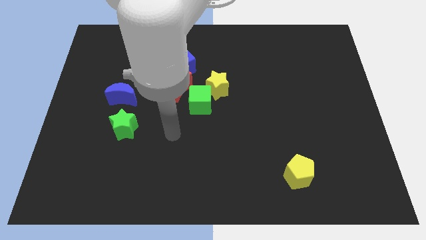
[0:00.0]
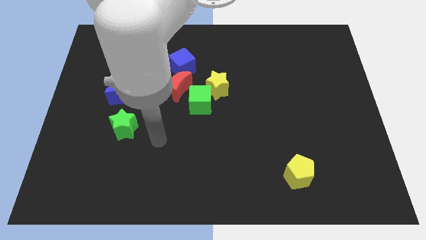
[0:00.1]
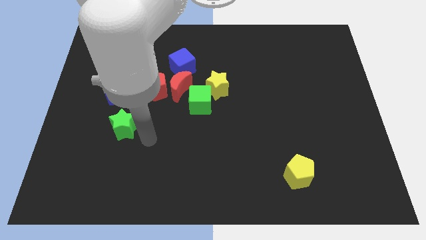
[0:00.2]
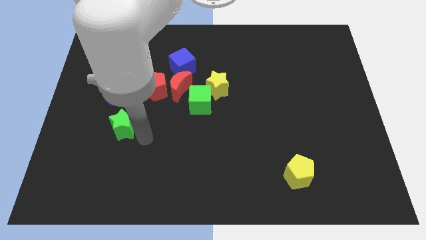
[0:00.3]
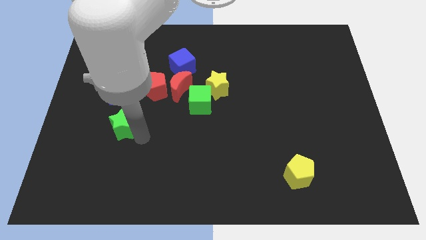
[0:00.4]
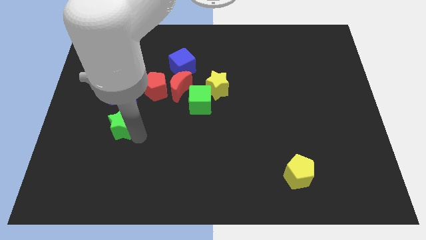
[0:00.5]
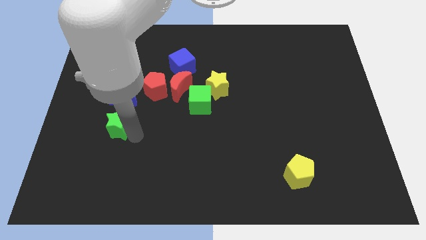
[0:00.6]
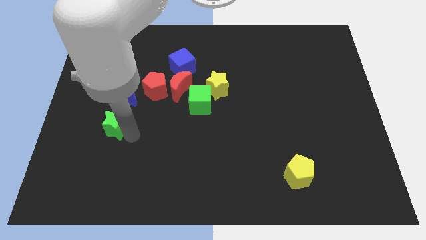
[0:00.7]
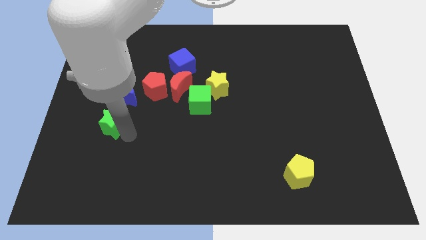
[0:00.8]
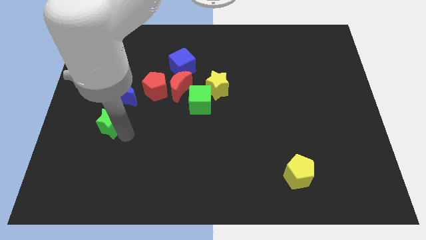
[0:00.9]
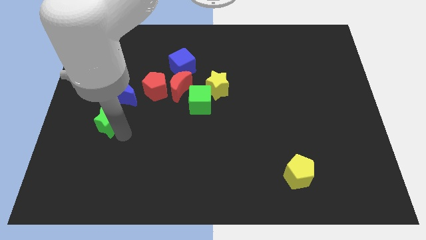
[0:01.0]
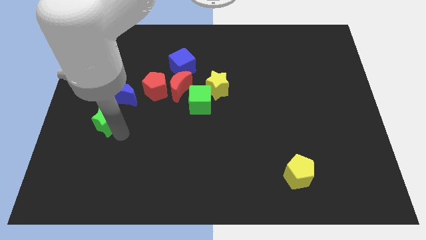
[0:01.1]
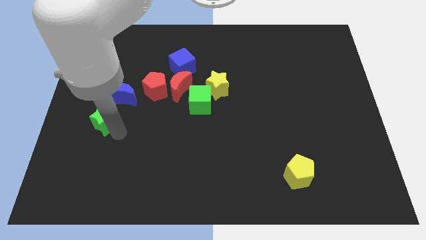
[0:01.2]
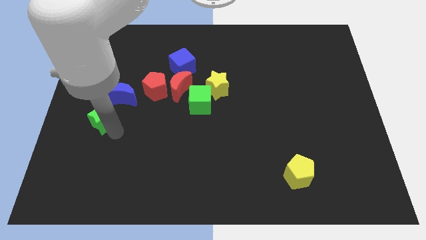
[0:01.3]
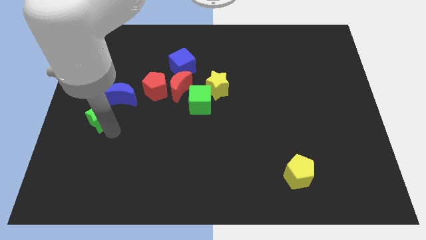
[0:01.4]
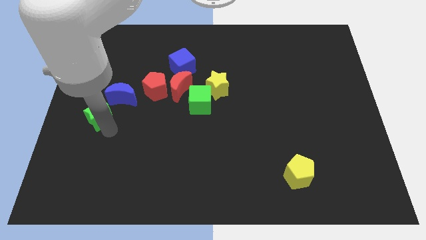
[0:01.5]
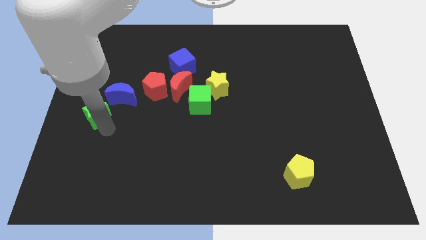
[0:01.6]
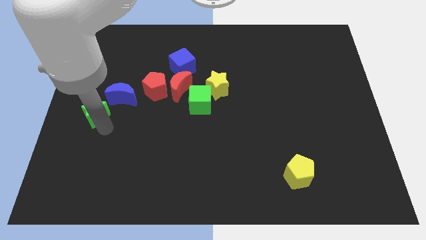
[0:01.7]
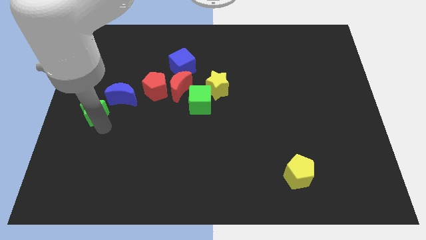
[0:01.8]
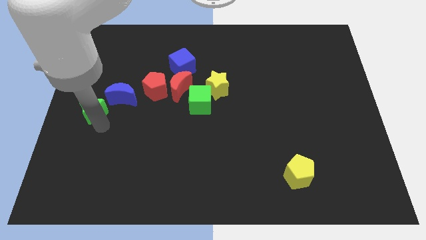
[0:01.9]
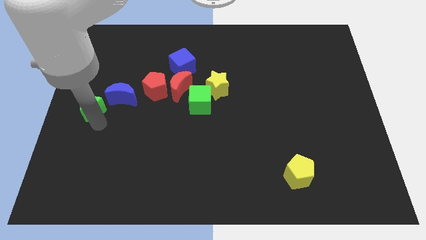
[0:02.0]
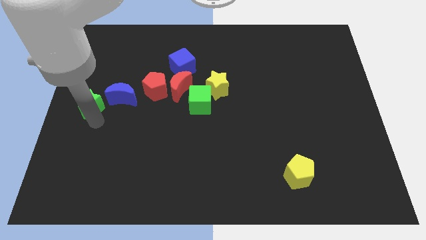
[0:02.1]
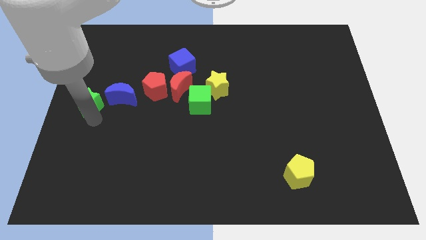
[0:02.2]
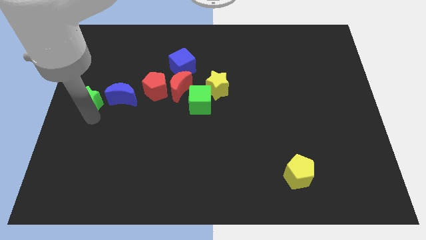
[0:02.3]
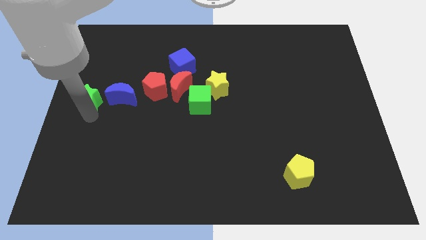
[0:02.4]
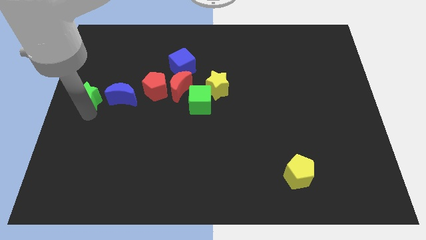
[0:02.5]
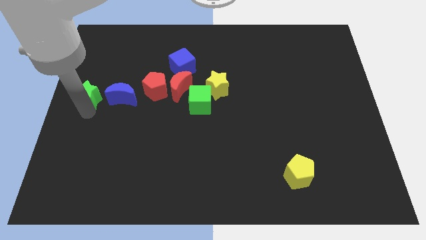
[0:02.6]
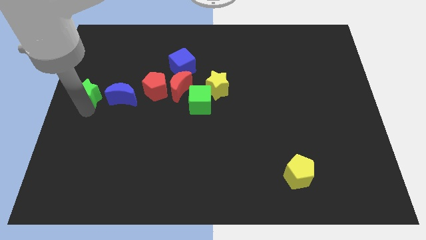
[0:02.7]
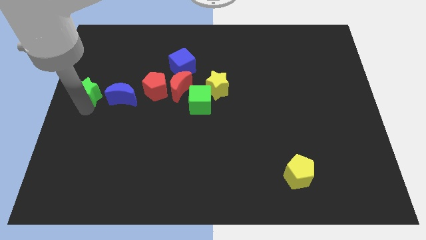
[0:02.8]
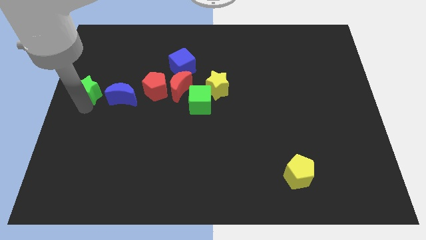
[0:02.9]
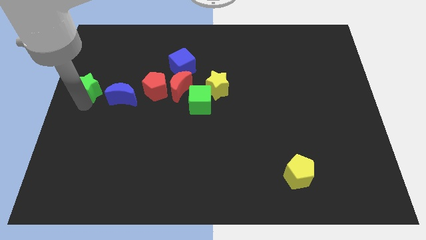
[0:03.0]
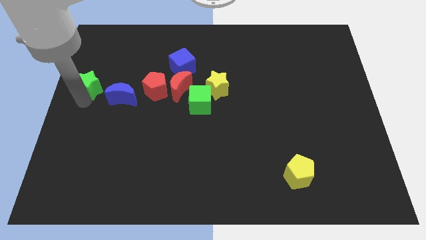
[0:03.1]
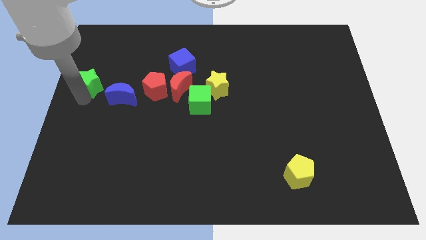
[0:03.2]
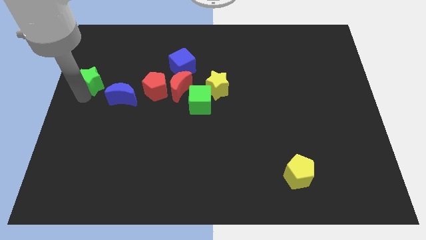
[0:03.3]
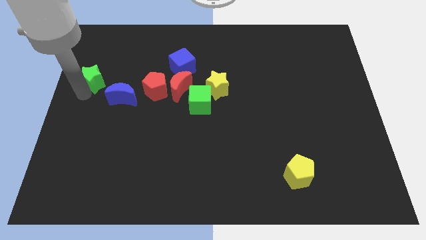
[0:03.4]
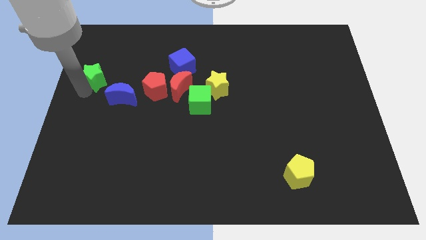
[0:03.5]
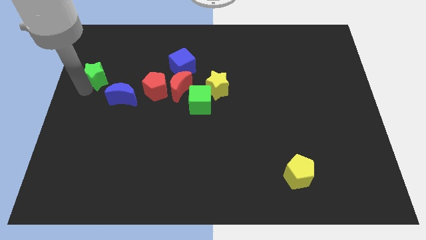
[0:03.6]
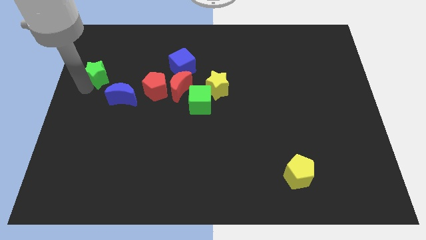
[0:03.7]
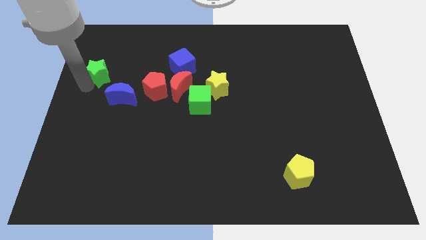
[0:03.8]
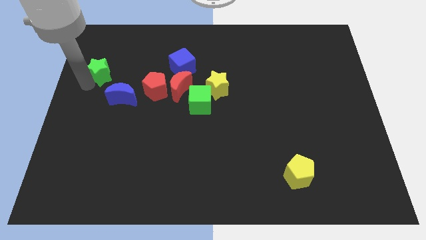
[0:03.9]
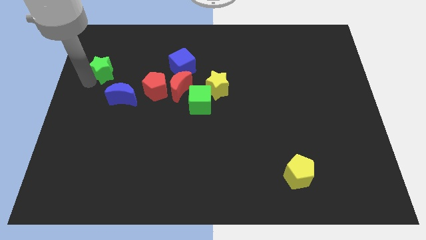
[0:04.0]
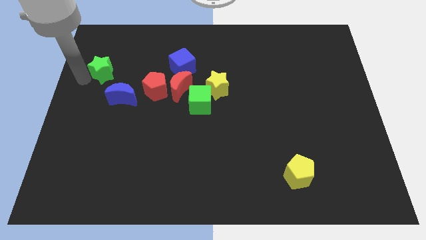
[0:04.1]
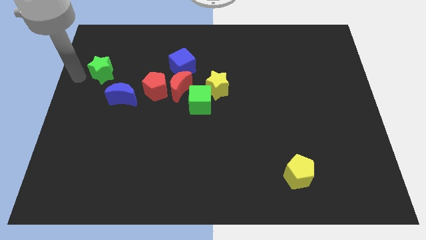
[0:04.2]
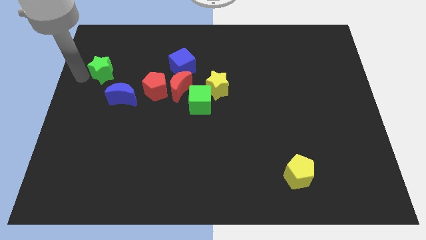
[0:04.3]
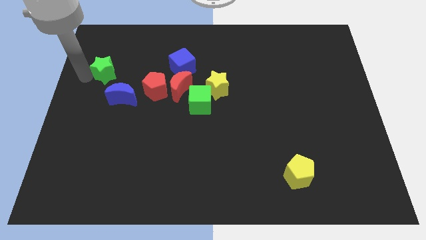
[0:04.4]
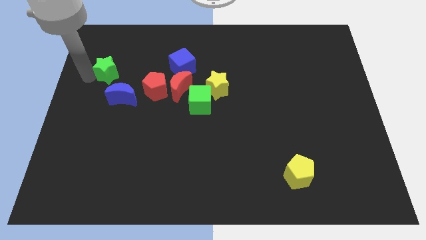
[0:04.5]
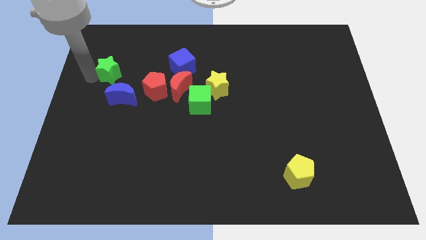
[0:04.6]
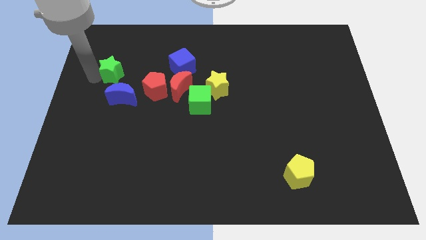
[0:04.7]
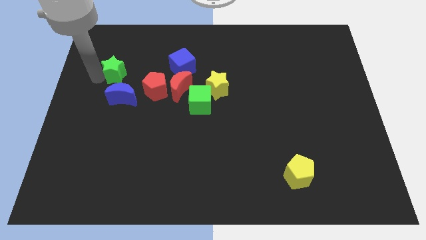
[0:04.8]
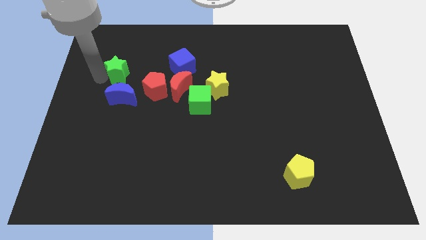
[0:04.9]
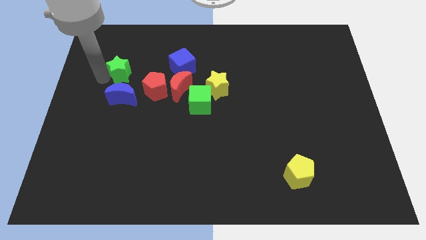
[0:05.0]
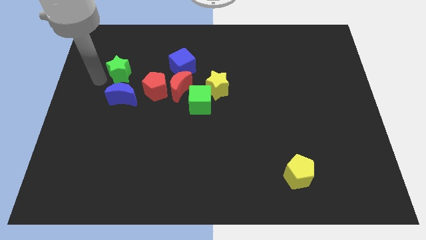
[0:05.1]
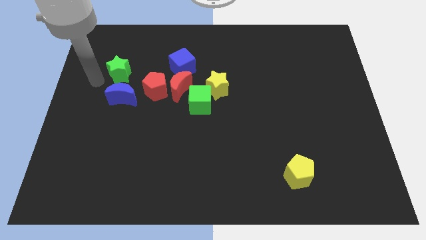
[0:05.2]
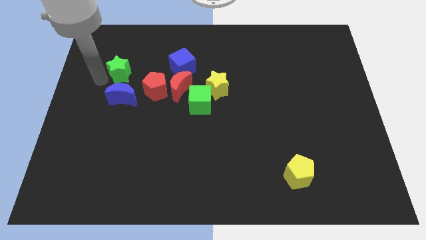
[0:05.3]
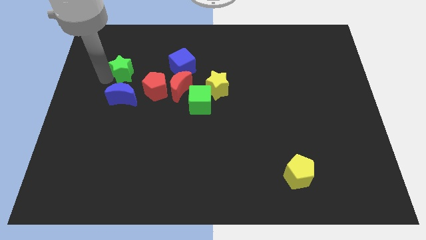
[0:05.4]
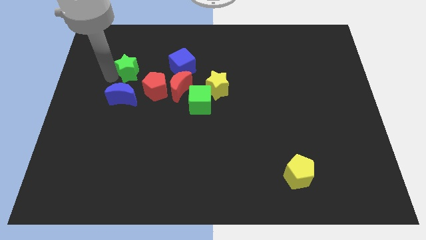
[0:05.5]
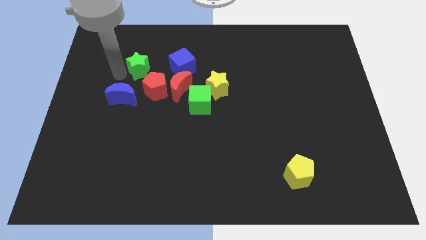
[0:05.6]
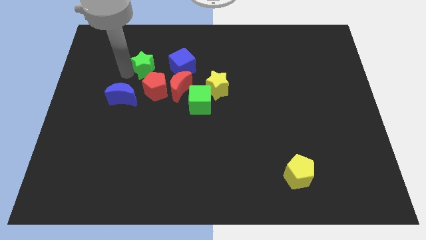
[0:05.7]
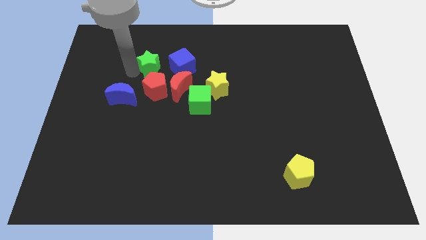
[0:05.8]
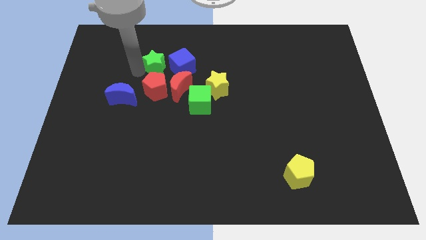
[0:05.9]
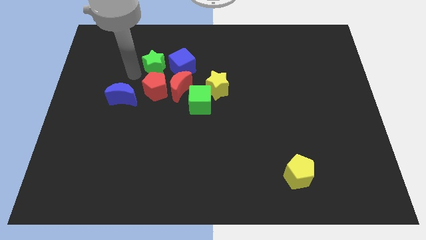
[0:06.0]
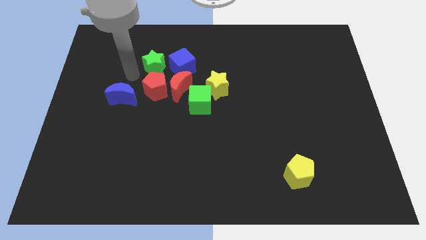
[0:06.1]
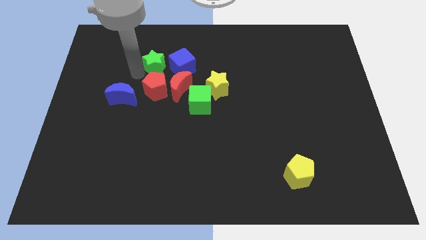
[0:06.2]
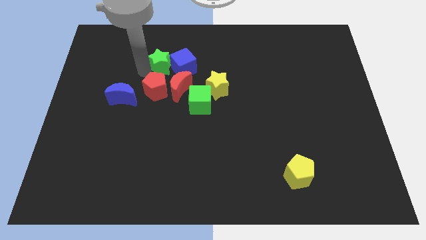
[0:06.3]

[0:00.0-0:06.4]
put the green star to the top side of the red moon

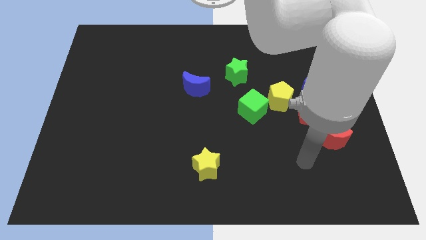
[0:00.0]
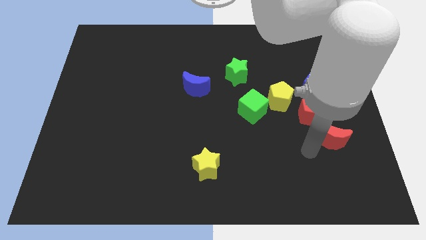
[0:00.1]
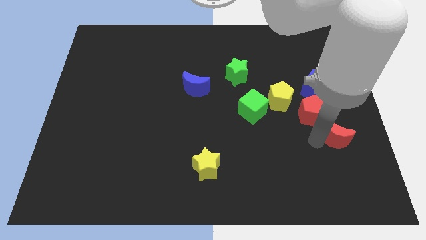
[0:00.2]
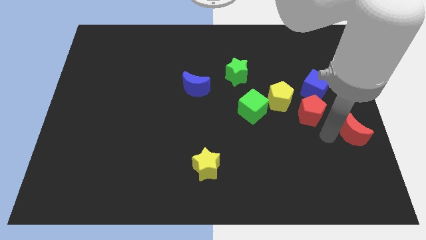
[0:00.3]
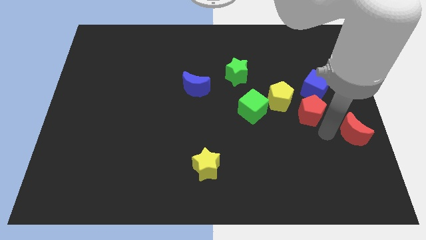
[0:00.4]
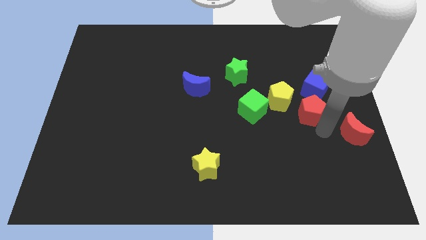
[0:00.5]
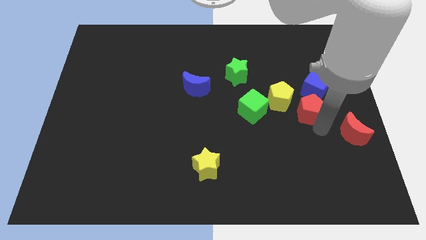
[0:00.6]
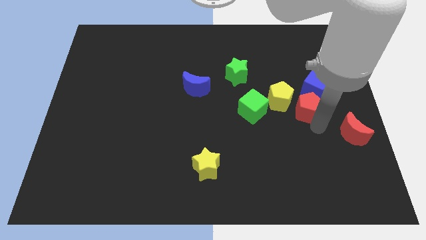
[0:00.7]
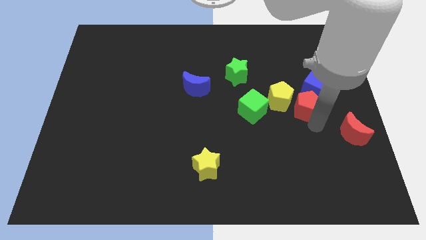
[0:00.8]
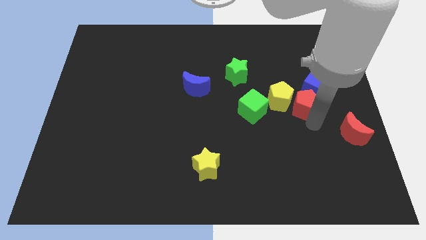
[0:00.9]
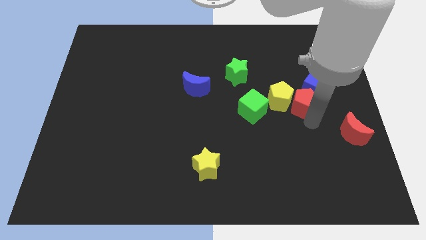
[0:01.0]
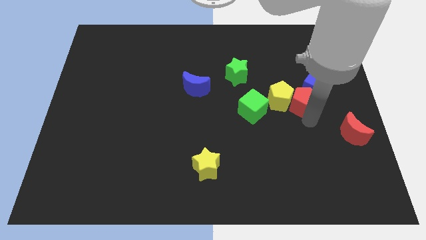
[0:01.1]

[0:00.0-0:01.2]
slide the red pentagon to the top right side of the yellow pentagon
